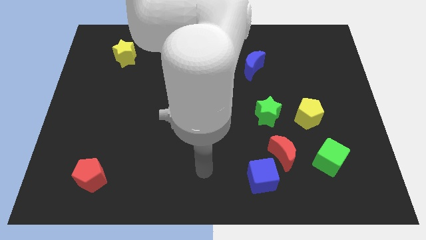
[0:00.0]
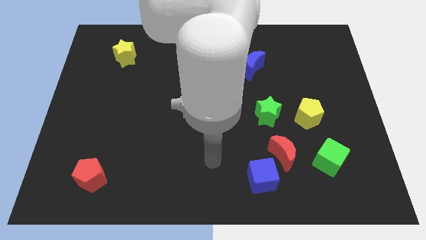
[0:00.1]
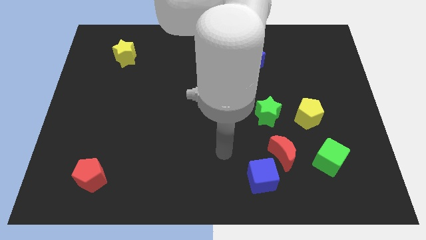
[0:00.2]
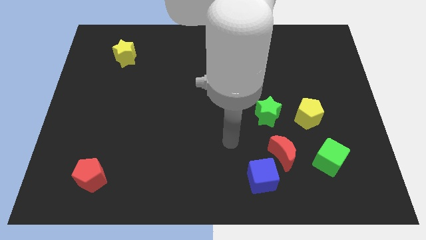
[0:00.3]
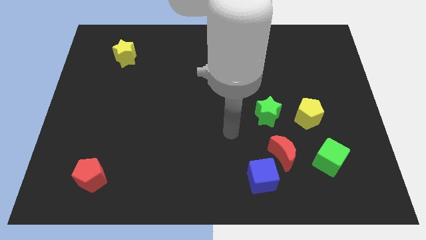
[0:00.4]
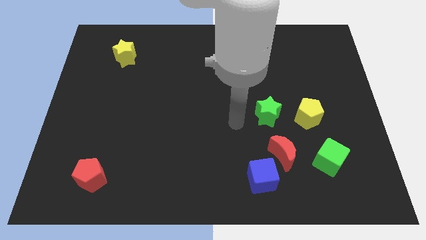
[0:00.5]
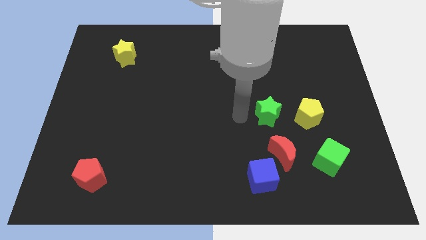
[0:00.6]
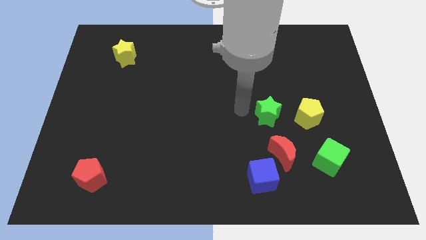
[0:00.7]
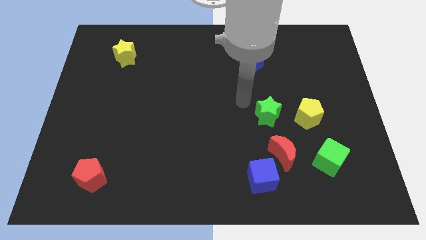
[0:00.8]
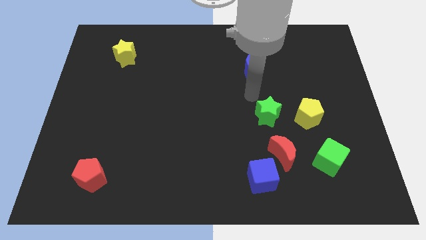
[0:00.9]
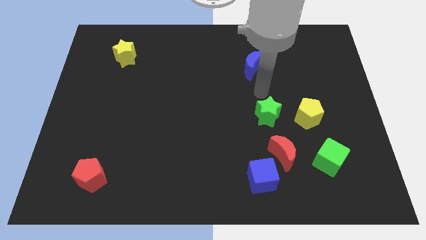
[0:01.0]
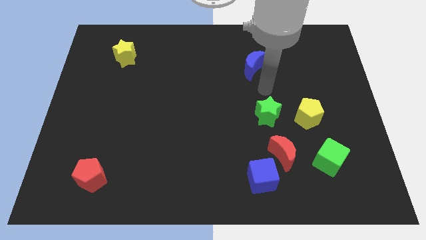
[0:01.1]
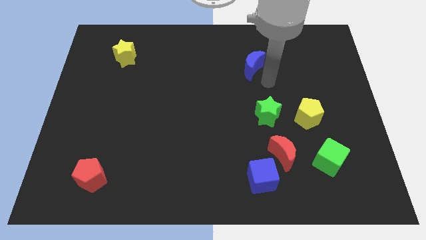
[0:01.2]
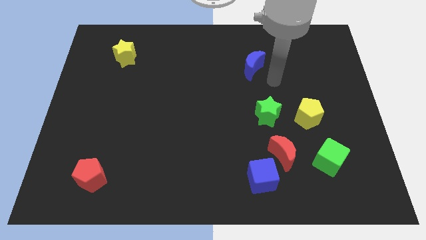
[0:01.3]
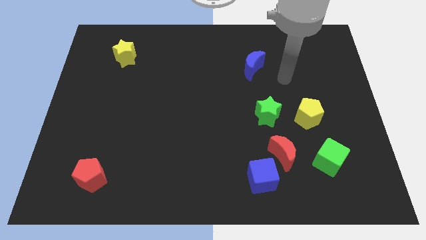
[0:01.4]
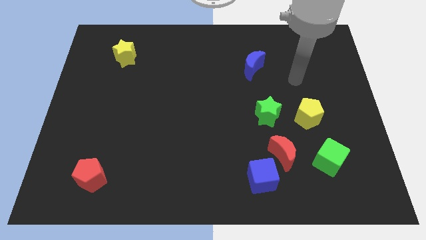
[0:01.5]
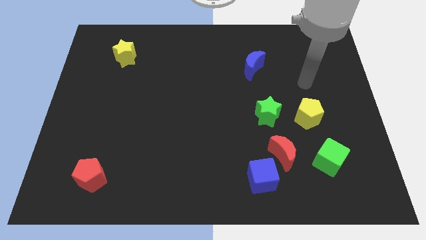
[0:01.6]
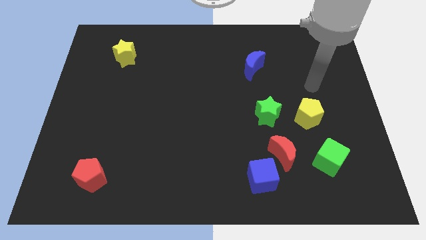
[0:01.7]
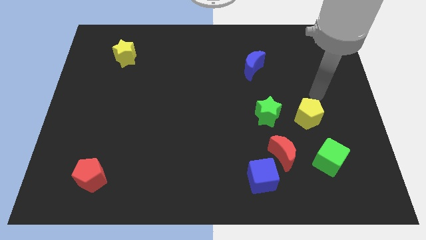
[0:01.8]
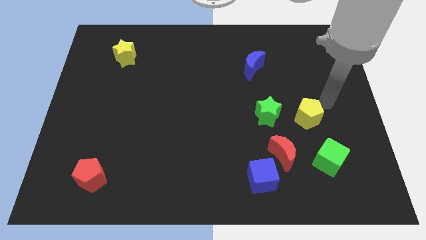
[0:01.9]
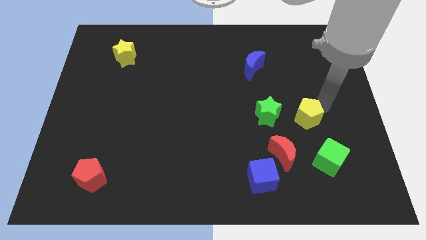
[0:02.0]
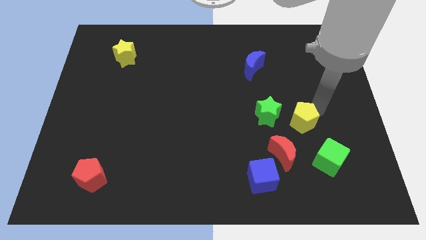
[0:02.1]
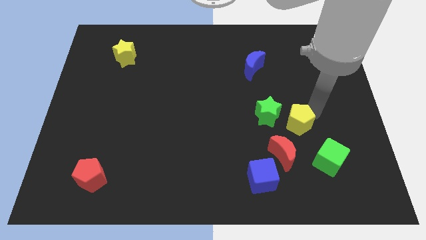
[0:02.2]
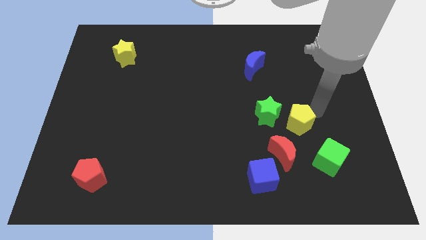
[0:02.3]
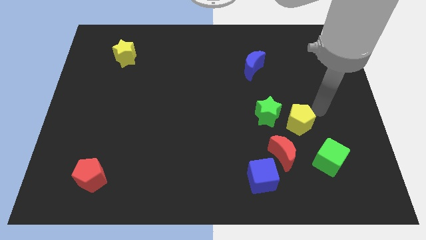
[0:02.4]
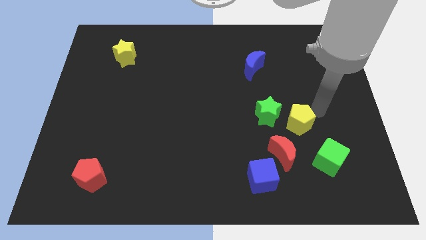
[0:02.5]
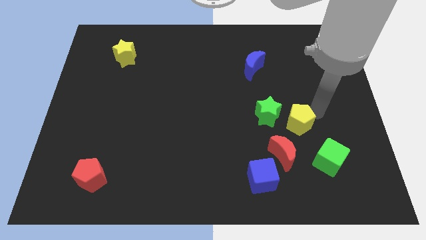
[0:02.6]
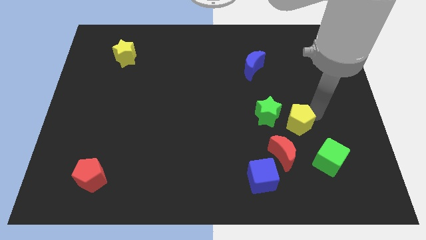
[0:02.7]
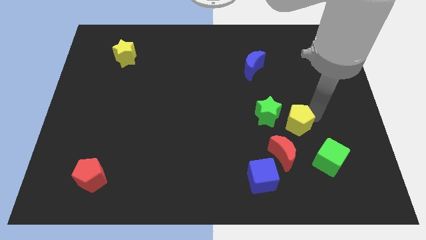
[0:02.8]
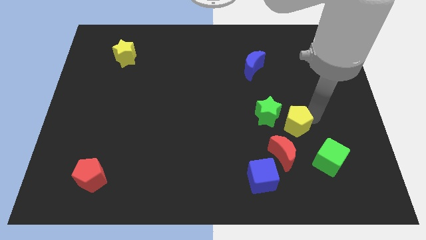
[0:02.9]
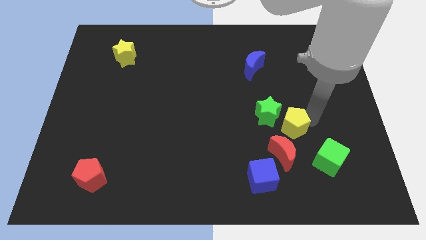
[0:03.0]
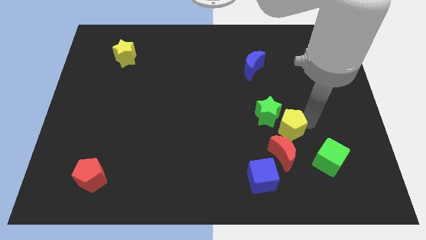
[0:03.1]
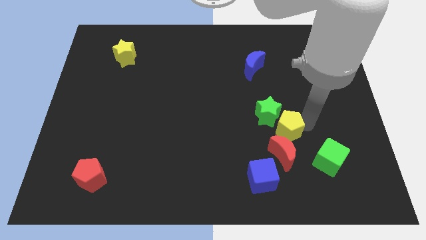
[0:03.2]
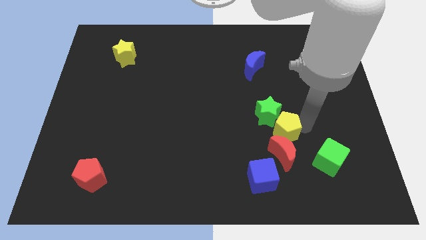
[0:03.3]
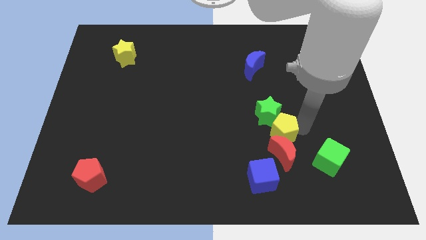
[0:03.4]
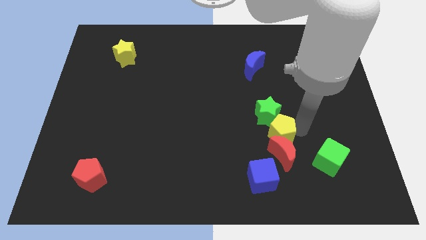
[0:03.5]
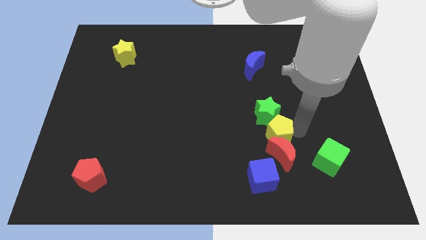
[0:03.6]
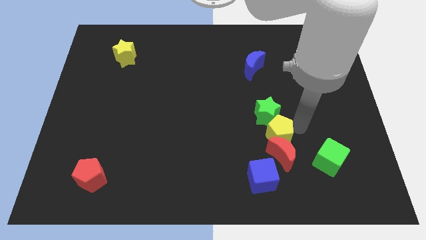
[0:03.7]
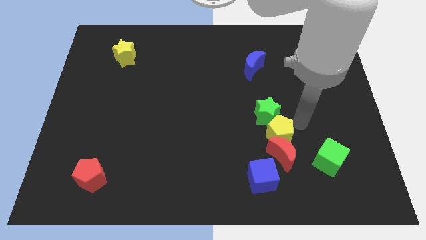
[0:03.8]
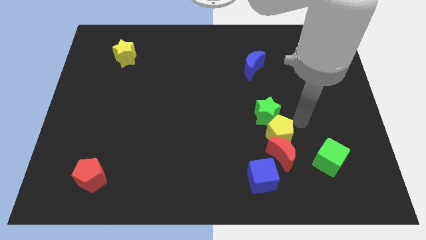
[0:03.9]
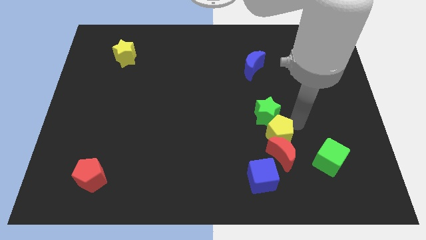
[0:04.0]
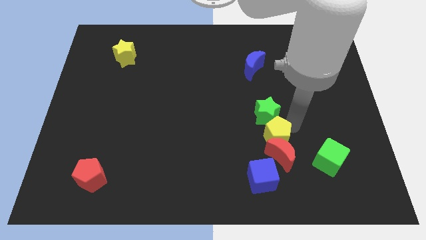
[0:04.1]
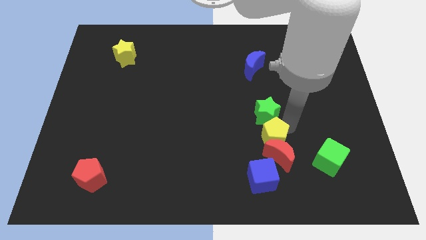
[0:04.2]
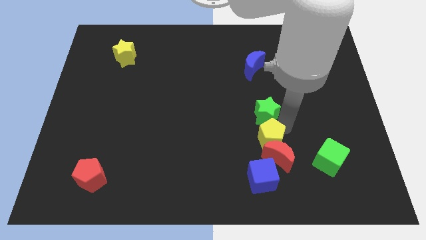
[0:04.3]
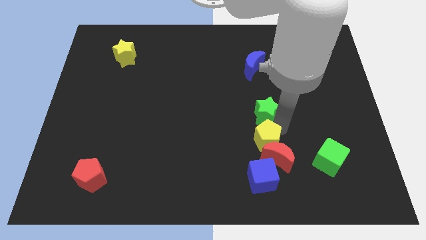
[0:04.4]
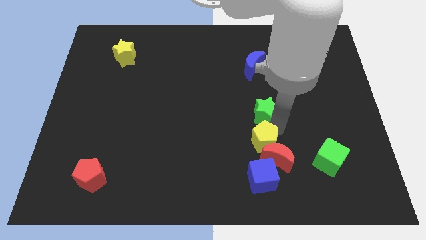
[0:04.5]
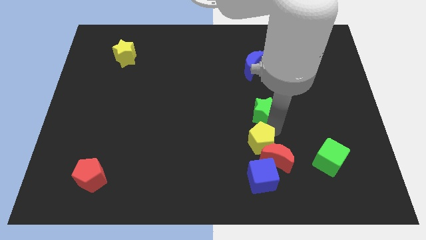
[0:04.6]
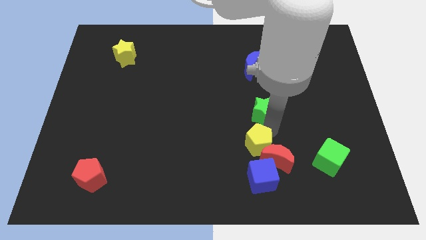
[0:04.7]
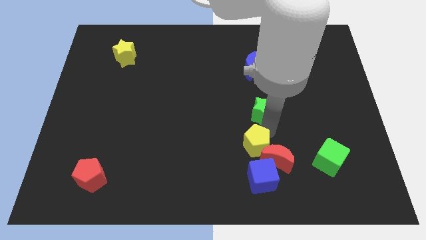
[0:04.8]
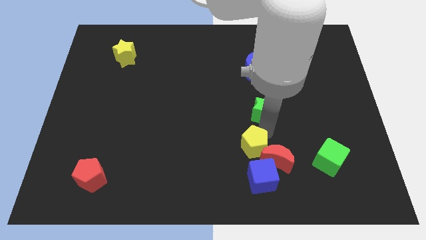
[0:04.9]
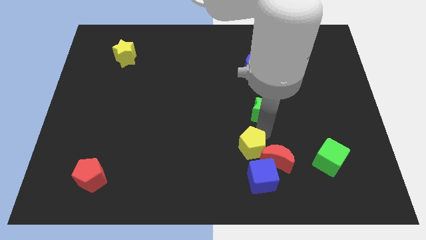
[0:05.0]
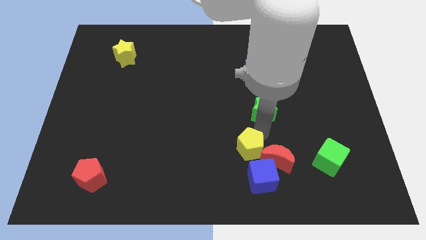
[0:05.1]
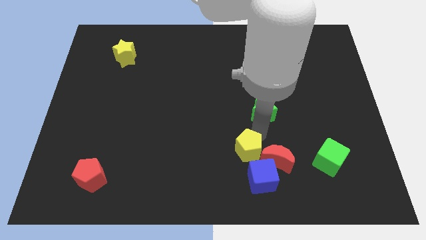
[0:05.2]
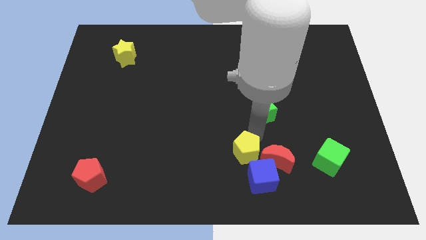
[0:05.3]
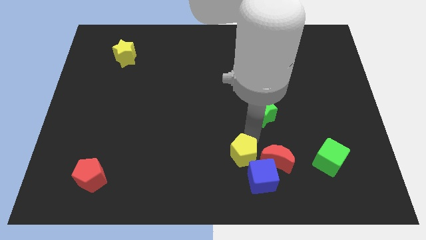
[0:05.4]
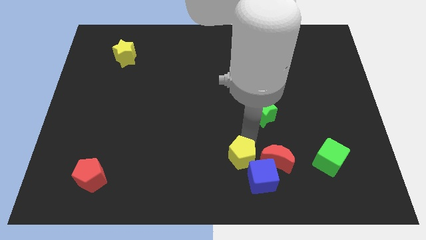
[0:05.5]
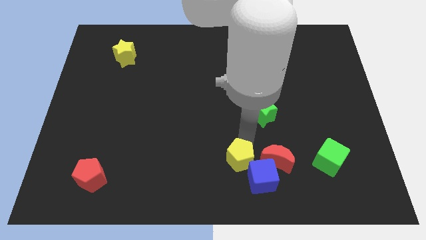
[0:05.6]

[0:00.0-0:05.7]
slide the yellow pentagon to the bottom

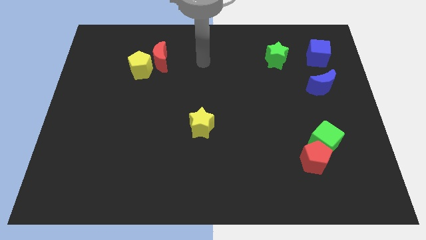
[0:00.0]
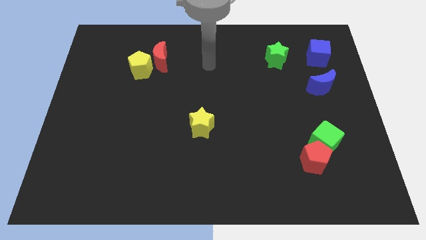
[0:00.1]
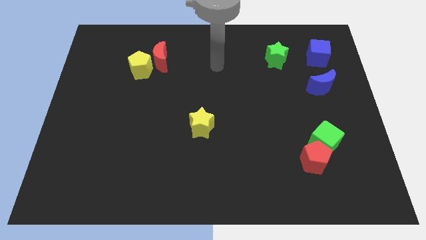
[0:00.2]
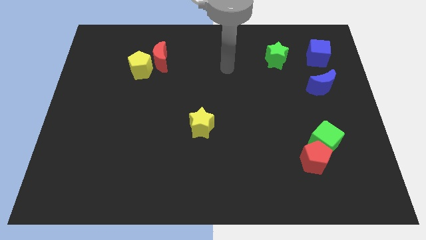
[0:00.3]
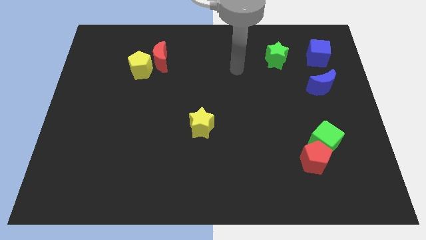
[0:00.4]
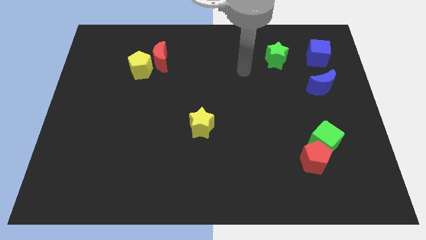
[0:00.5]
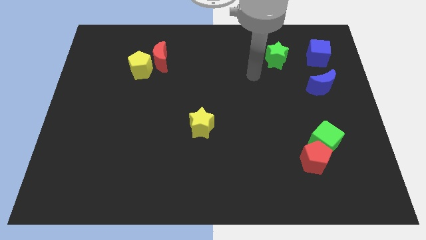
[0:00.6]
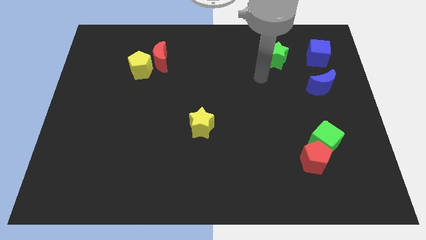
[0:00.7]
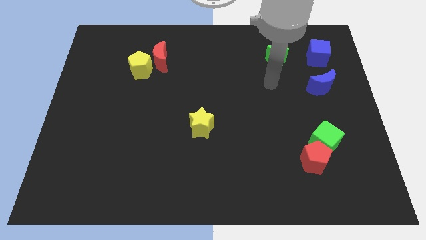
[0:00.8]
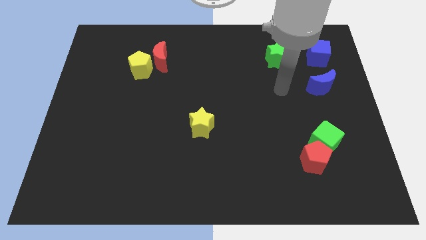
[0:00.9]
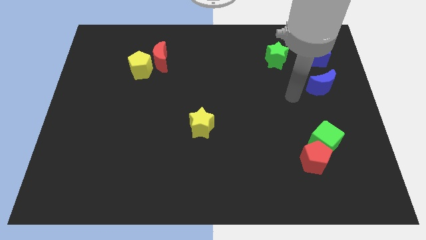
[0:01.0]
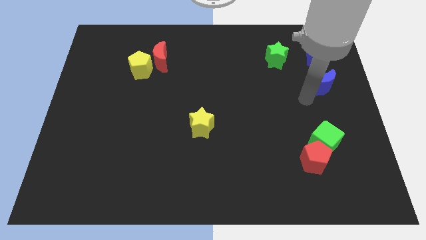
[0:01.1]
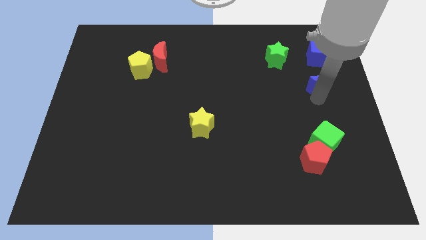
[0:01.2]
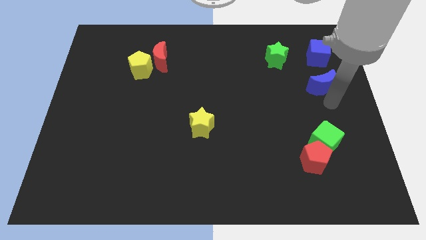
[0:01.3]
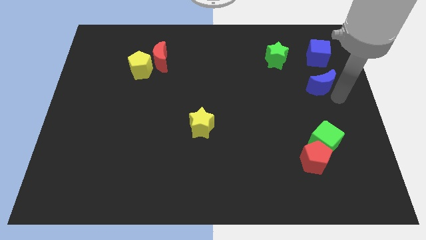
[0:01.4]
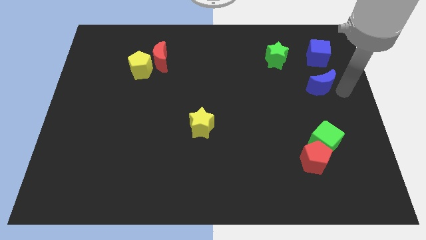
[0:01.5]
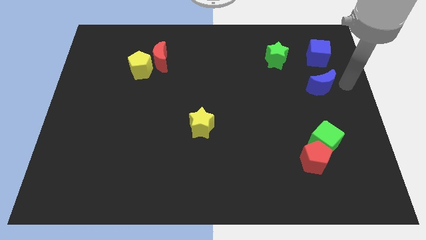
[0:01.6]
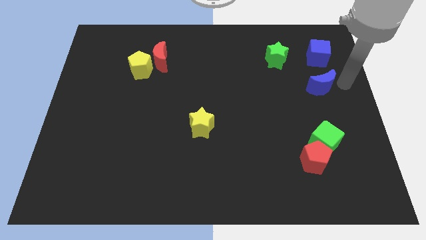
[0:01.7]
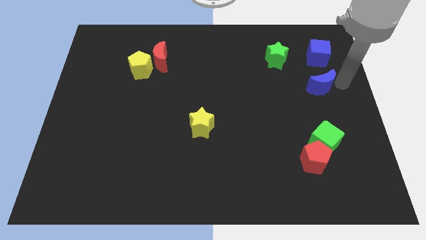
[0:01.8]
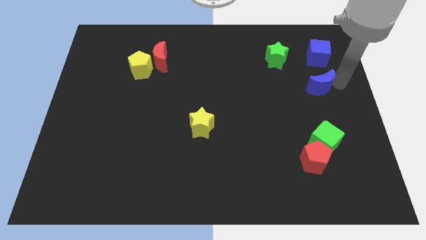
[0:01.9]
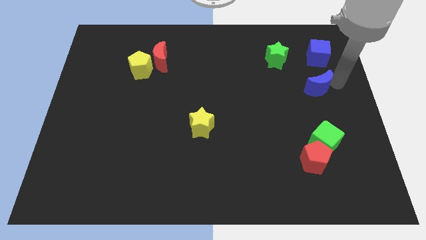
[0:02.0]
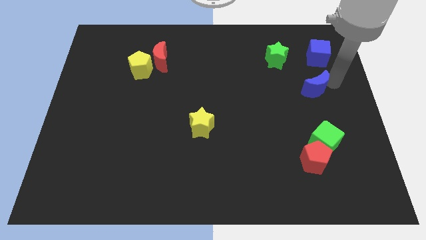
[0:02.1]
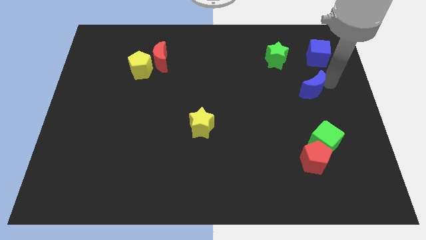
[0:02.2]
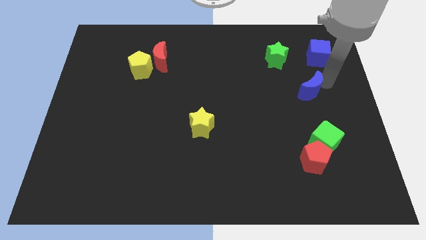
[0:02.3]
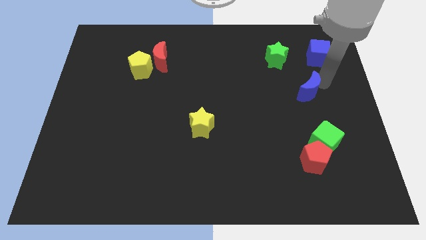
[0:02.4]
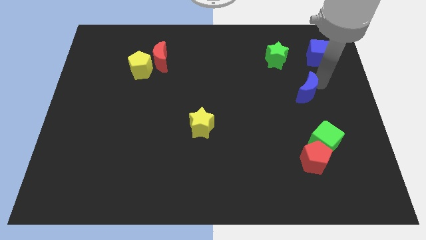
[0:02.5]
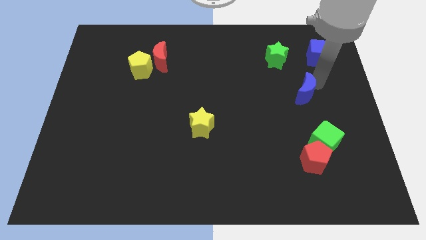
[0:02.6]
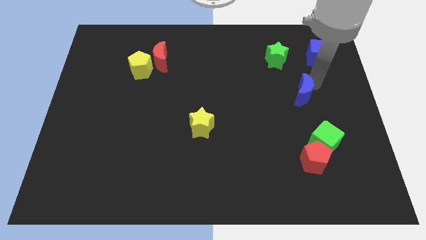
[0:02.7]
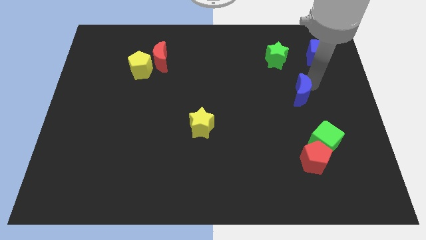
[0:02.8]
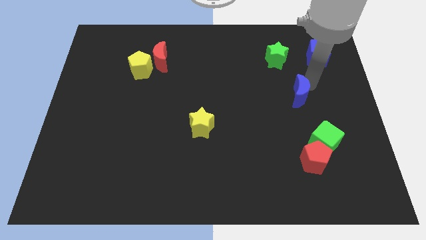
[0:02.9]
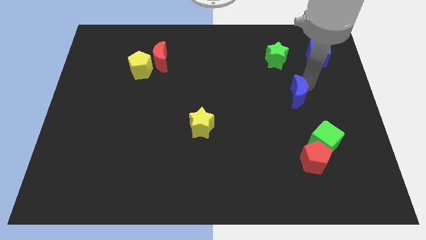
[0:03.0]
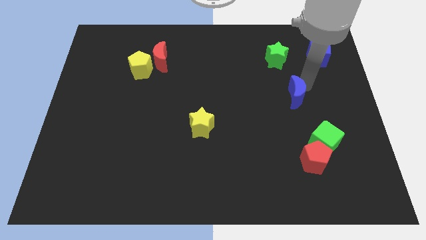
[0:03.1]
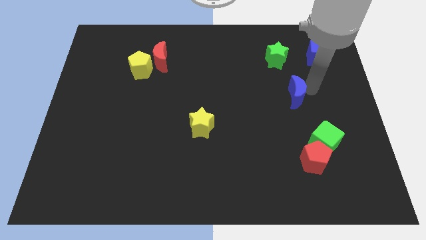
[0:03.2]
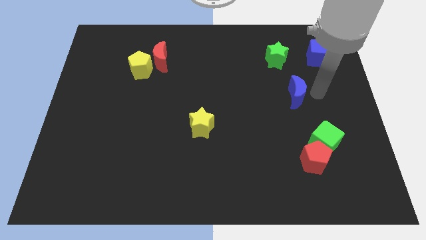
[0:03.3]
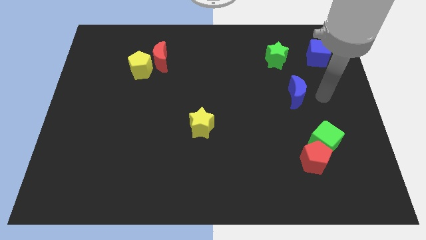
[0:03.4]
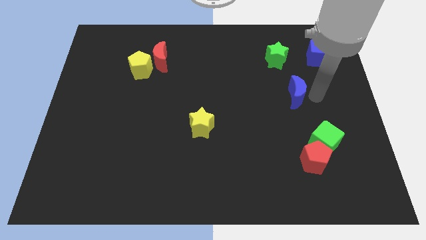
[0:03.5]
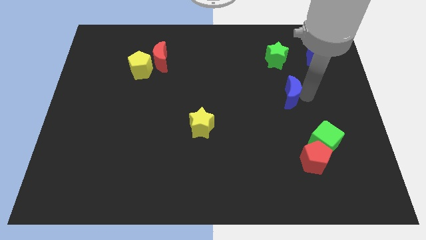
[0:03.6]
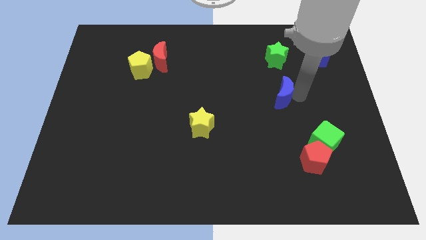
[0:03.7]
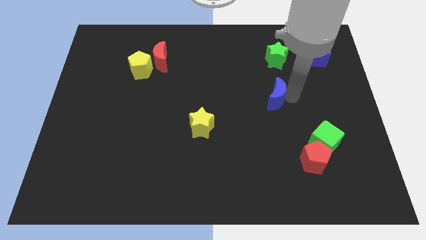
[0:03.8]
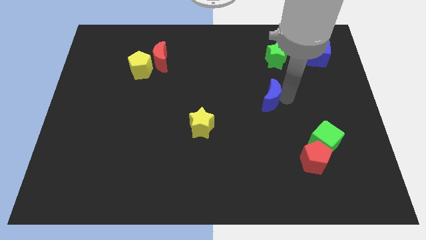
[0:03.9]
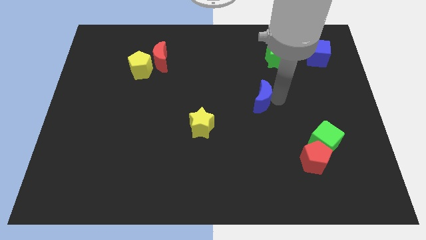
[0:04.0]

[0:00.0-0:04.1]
move the blue moon to the center
